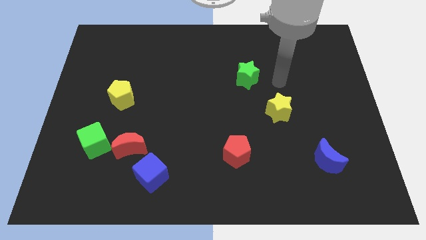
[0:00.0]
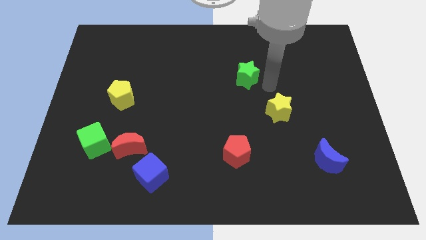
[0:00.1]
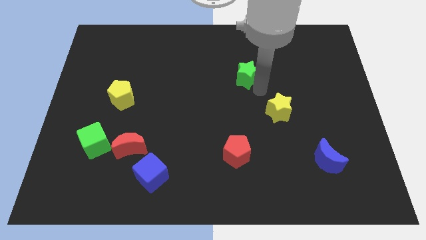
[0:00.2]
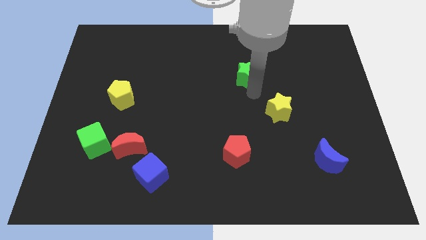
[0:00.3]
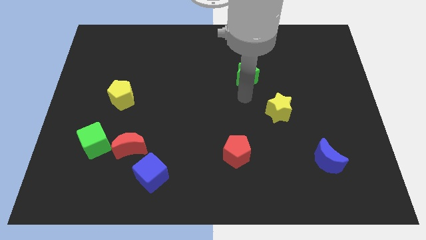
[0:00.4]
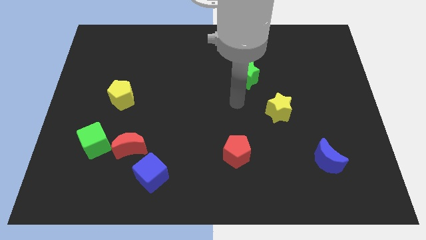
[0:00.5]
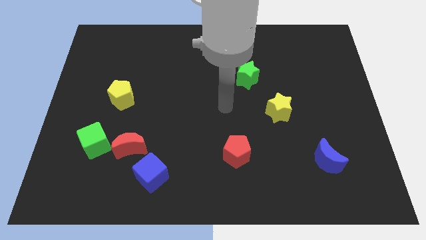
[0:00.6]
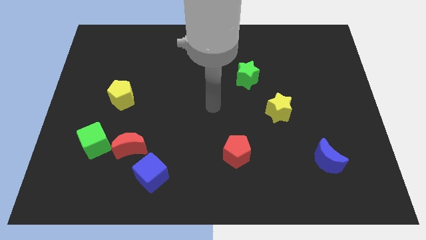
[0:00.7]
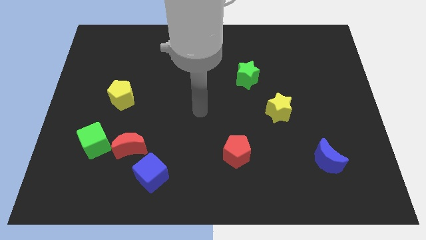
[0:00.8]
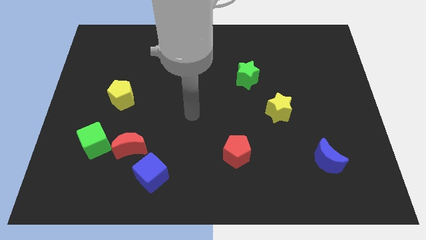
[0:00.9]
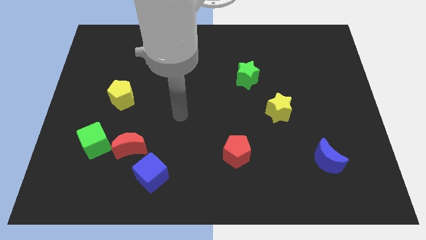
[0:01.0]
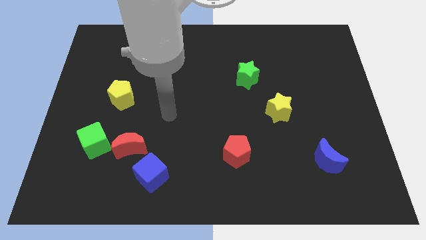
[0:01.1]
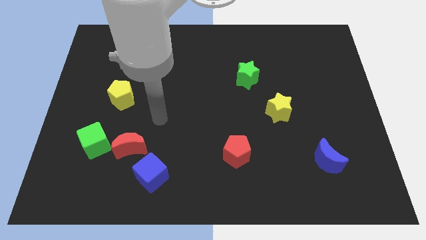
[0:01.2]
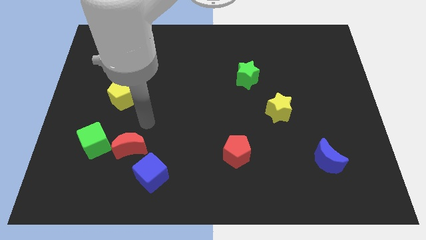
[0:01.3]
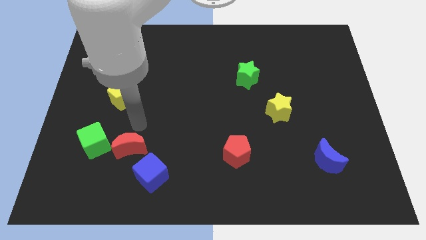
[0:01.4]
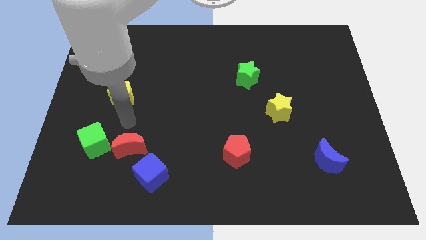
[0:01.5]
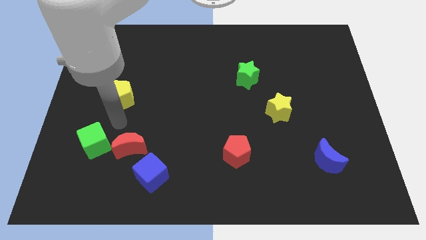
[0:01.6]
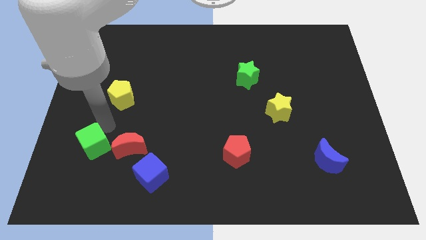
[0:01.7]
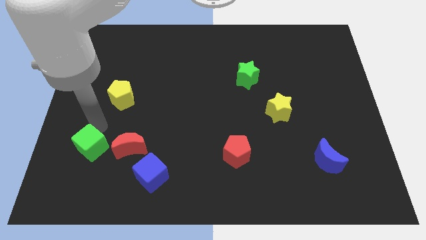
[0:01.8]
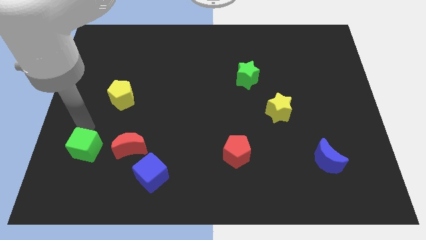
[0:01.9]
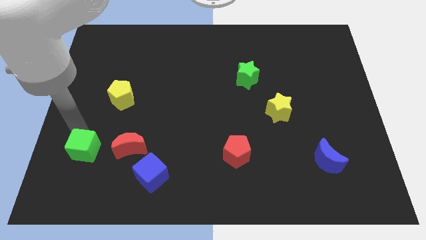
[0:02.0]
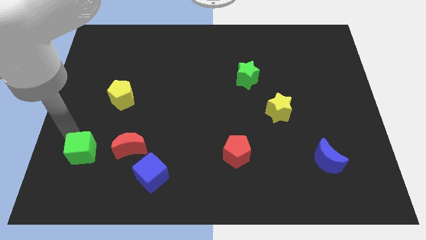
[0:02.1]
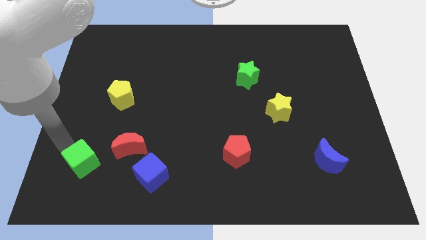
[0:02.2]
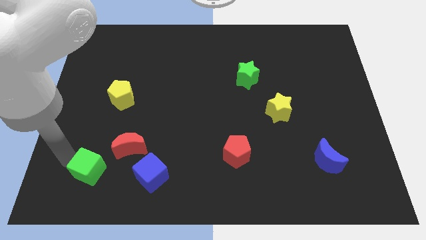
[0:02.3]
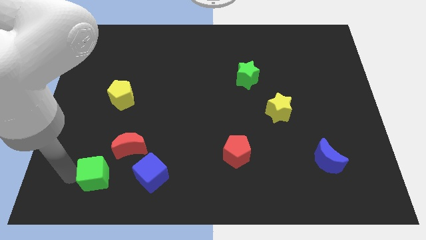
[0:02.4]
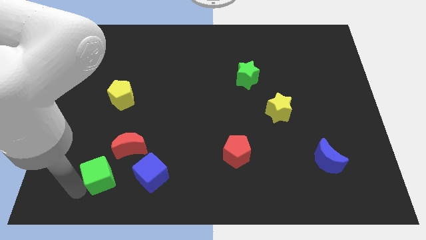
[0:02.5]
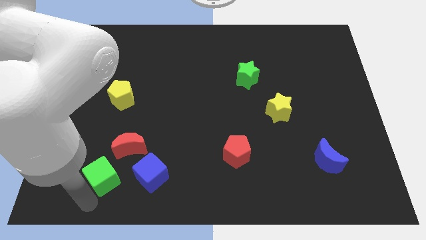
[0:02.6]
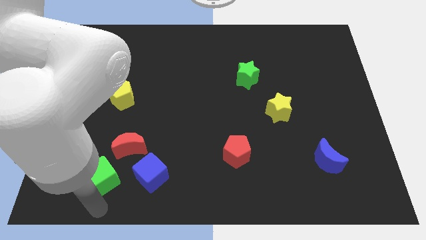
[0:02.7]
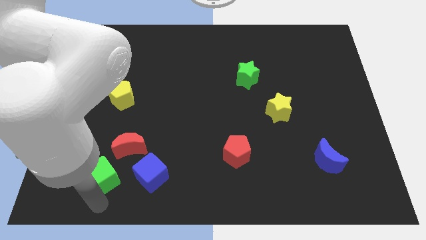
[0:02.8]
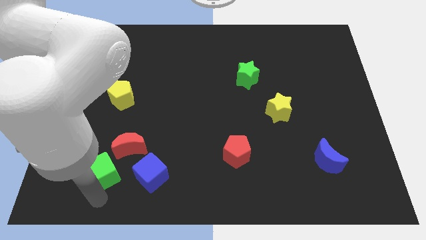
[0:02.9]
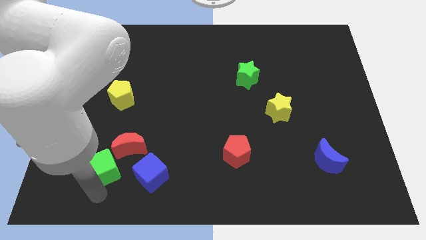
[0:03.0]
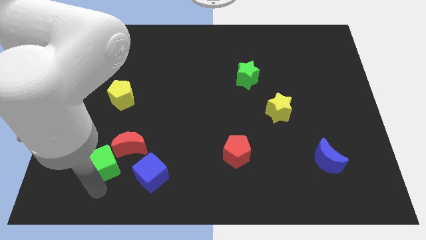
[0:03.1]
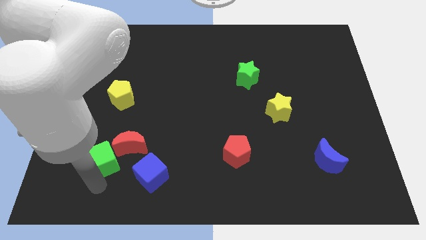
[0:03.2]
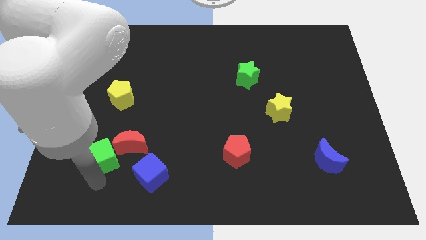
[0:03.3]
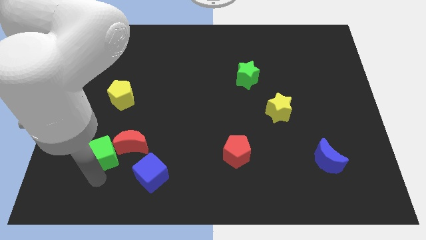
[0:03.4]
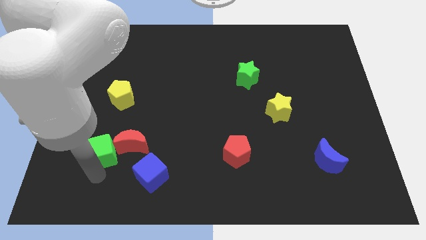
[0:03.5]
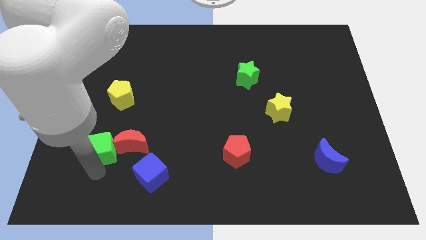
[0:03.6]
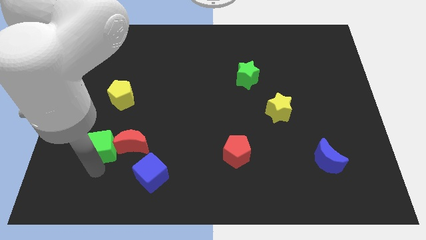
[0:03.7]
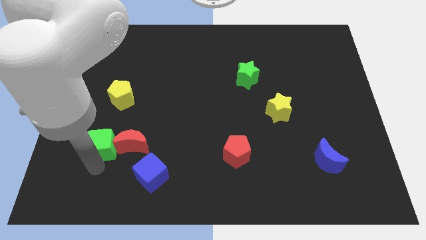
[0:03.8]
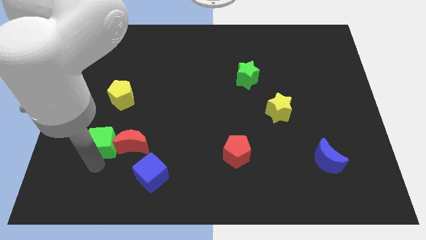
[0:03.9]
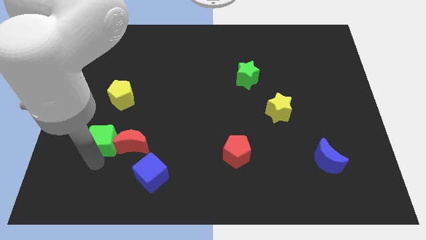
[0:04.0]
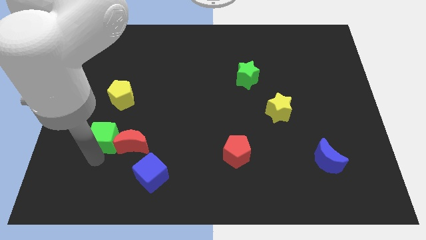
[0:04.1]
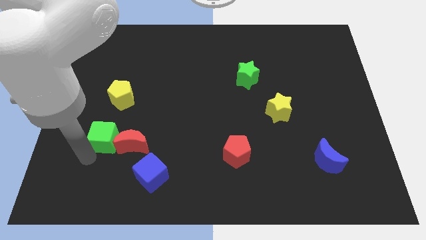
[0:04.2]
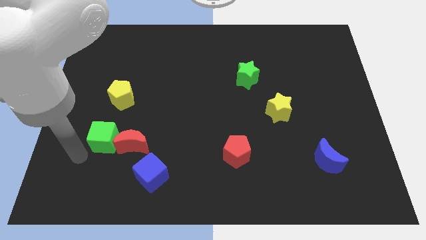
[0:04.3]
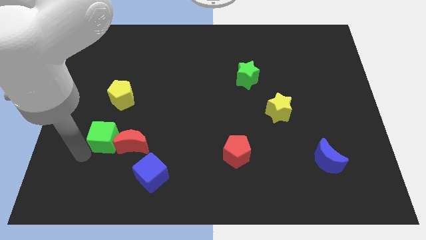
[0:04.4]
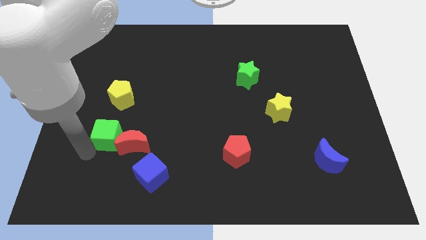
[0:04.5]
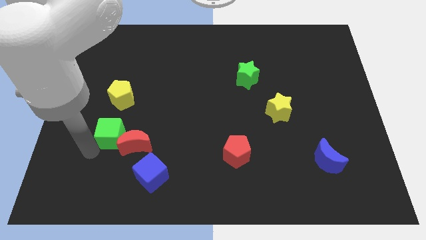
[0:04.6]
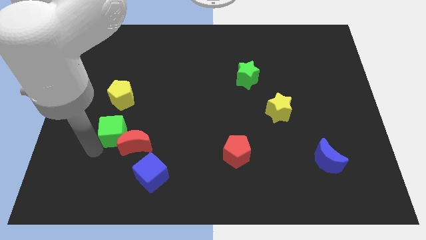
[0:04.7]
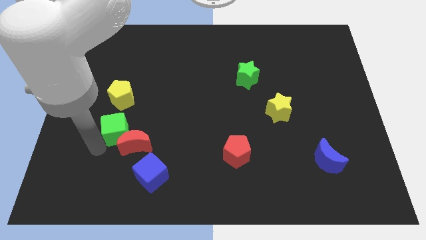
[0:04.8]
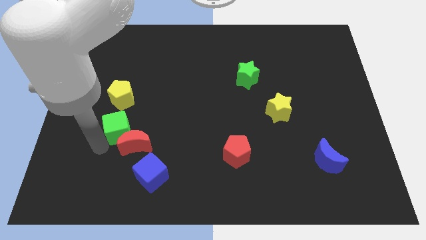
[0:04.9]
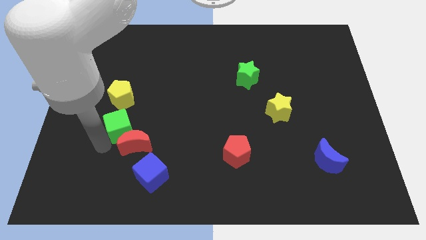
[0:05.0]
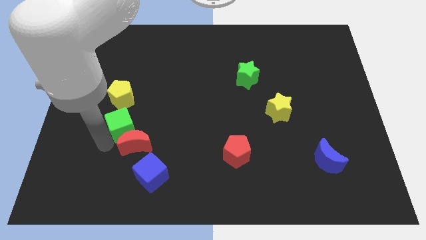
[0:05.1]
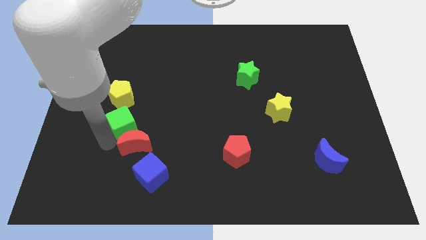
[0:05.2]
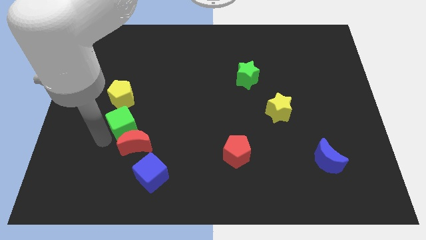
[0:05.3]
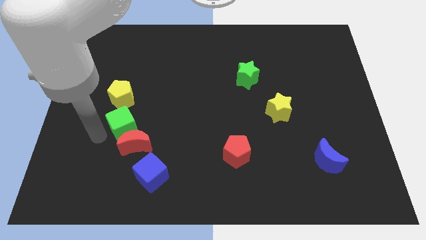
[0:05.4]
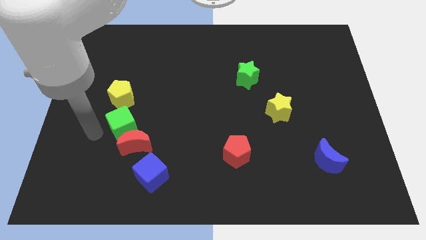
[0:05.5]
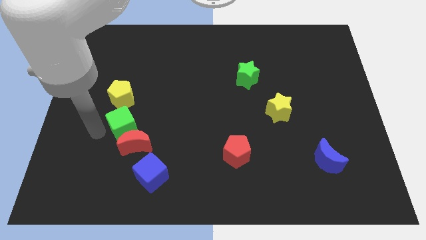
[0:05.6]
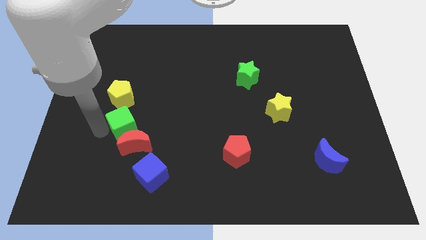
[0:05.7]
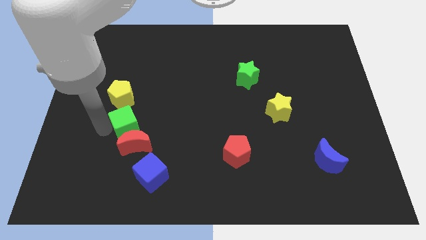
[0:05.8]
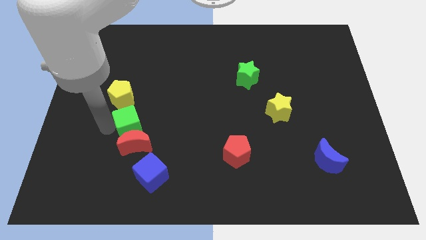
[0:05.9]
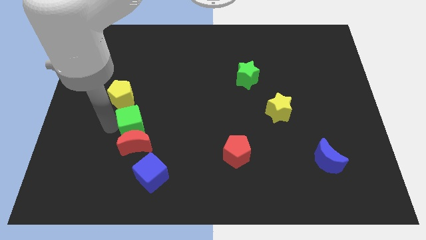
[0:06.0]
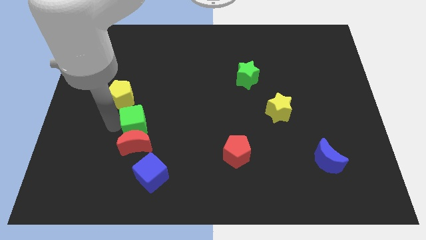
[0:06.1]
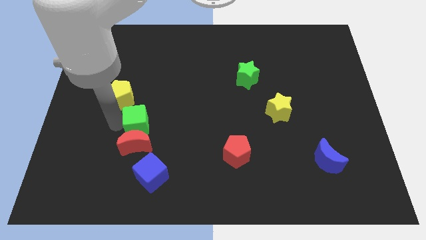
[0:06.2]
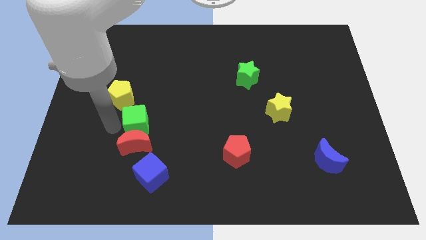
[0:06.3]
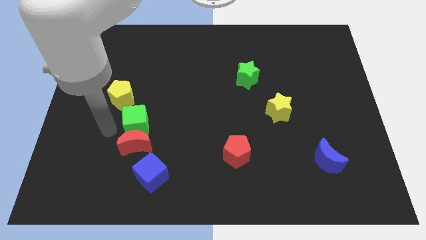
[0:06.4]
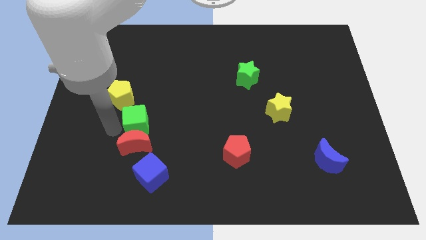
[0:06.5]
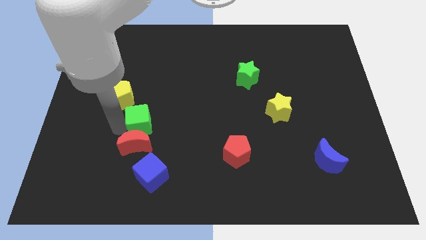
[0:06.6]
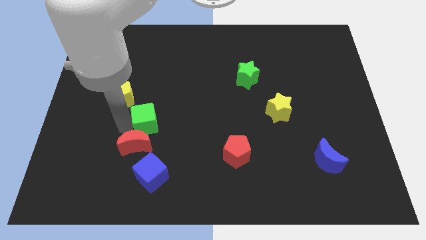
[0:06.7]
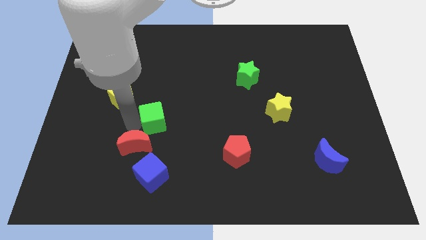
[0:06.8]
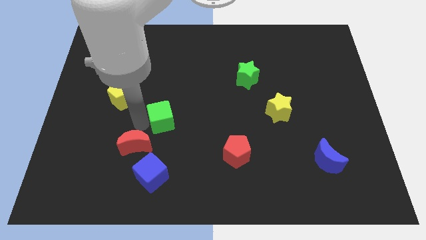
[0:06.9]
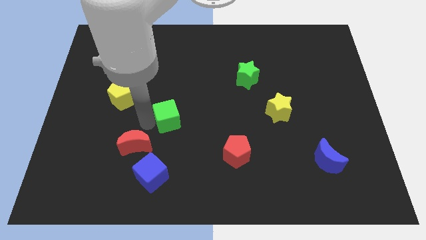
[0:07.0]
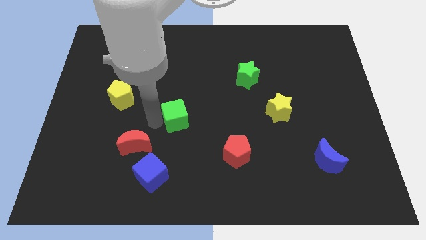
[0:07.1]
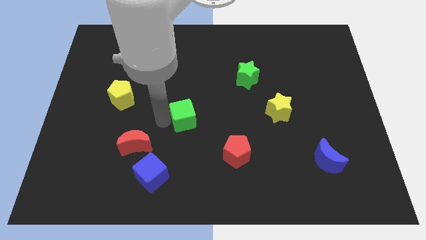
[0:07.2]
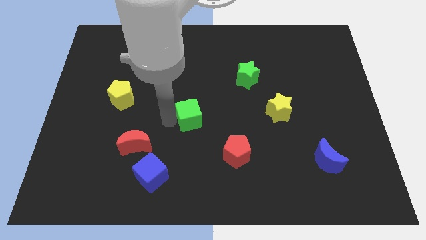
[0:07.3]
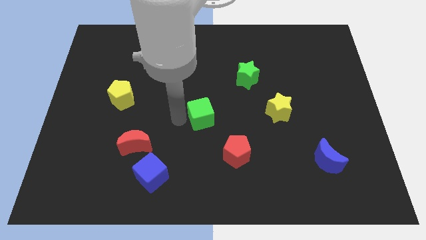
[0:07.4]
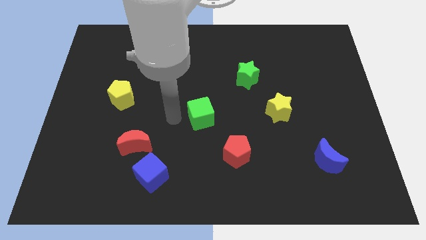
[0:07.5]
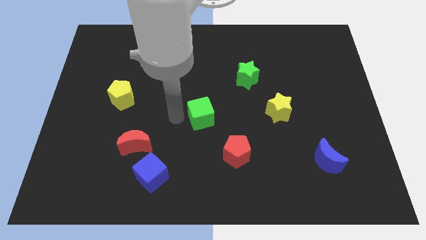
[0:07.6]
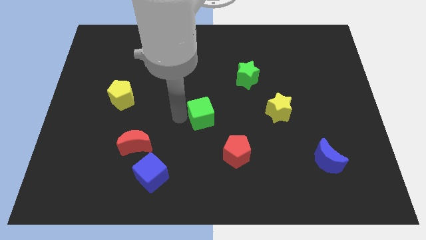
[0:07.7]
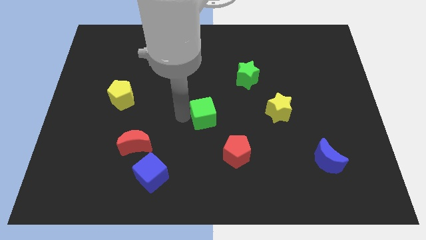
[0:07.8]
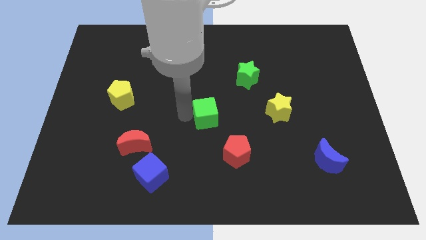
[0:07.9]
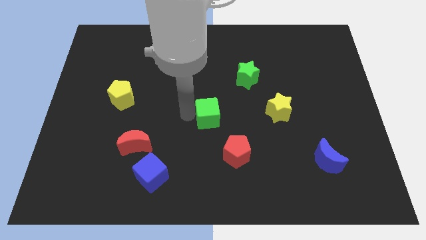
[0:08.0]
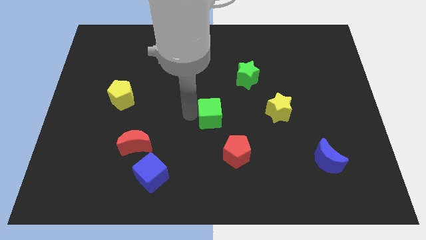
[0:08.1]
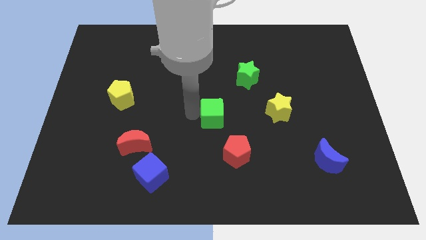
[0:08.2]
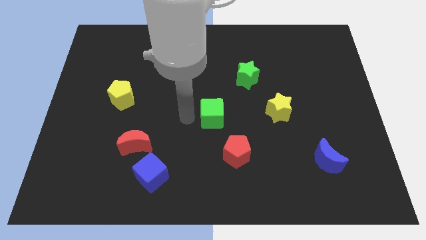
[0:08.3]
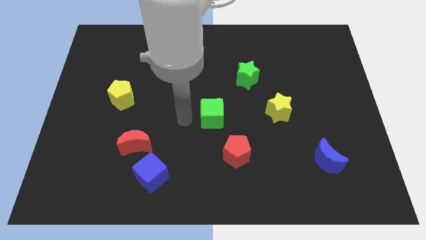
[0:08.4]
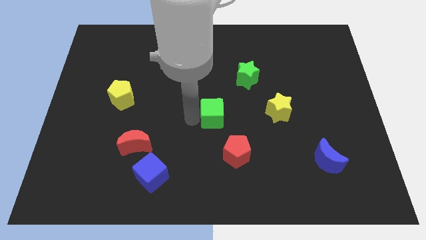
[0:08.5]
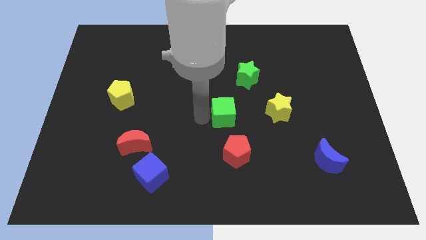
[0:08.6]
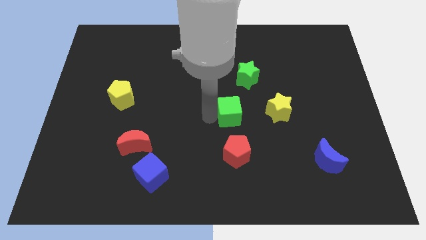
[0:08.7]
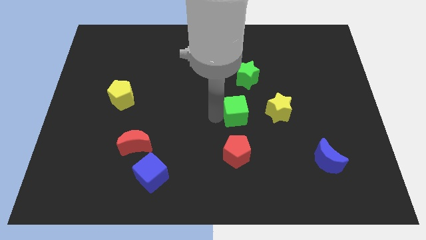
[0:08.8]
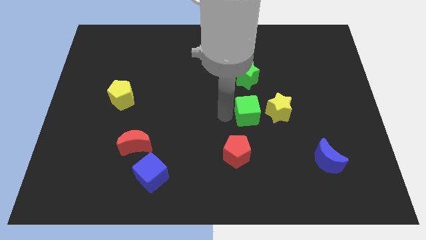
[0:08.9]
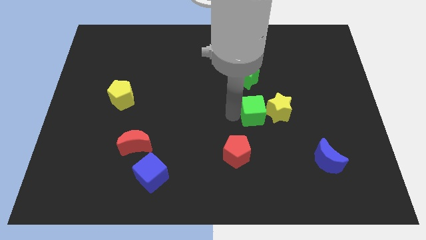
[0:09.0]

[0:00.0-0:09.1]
push the green cube to the yellow star
